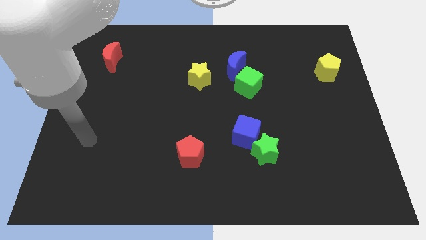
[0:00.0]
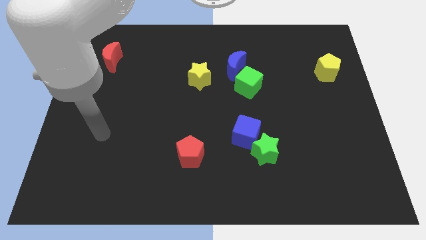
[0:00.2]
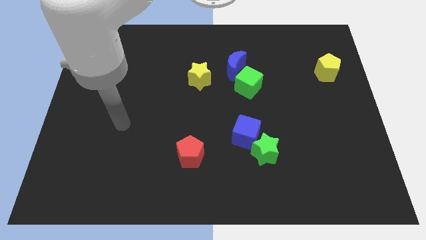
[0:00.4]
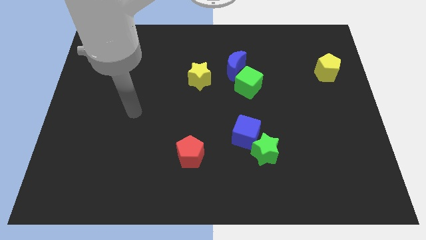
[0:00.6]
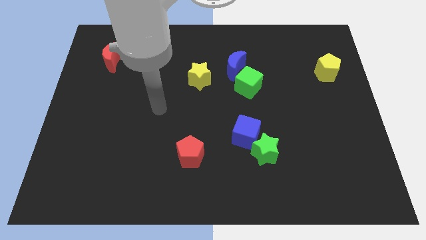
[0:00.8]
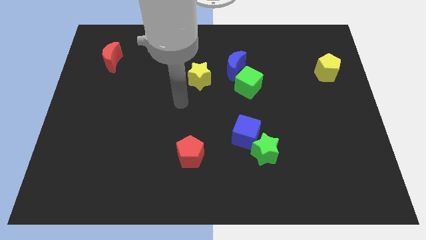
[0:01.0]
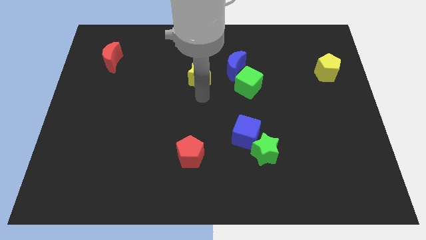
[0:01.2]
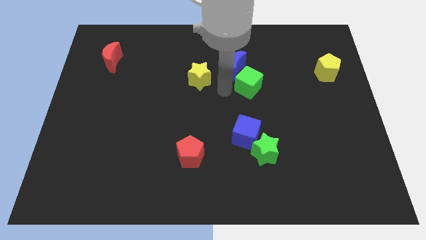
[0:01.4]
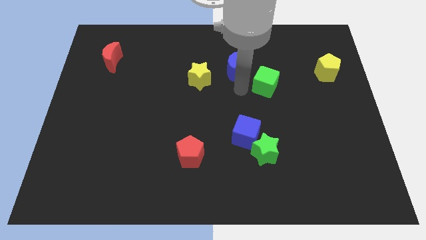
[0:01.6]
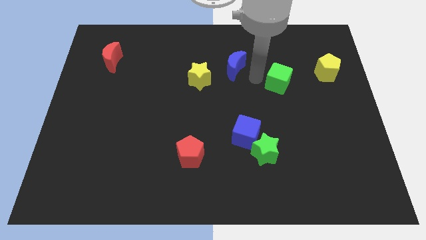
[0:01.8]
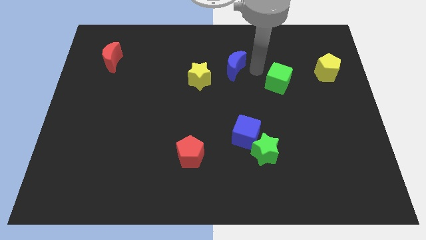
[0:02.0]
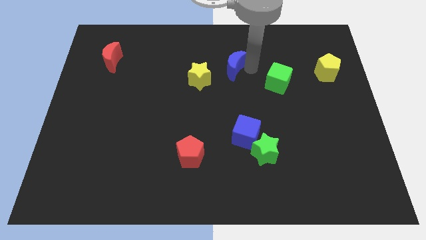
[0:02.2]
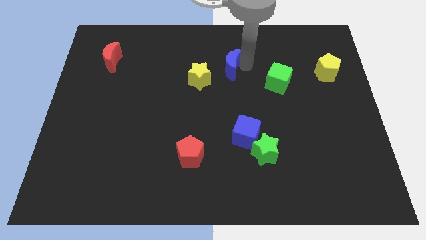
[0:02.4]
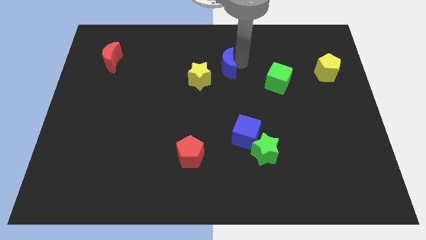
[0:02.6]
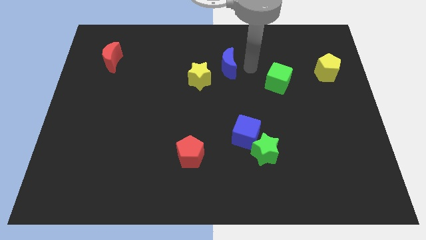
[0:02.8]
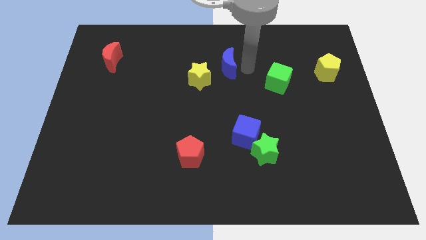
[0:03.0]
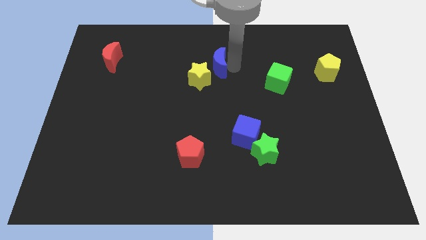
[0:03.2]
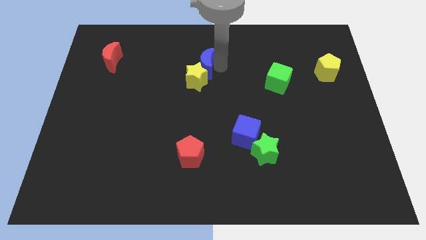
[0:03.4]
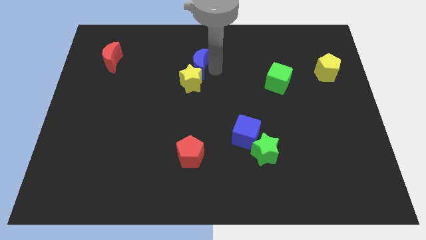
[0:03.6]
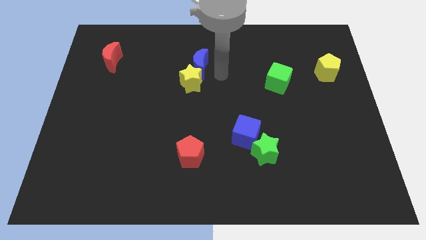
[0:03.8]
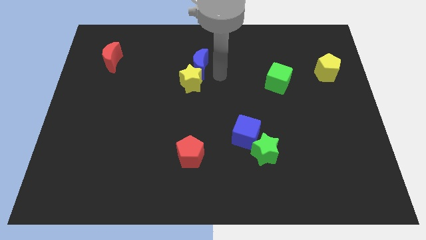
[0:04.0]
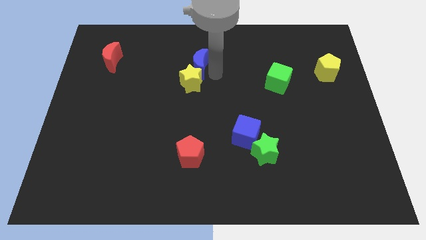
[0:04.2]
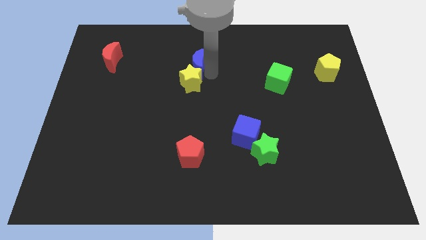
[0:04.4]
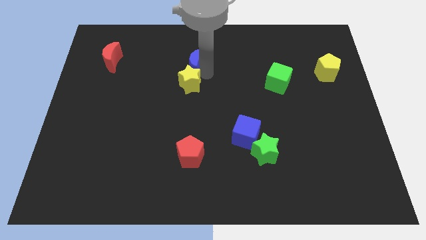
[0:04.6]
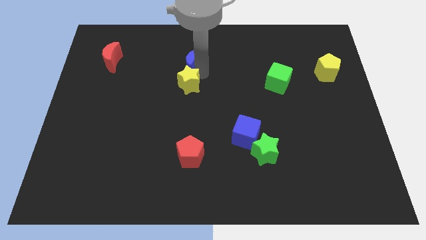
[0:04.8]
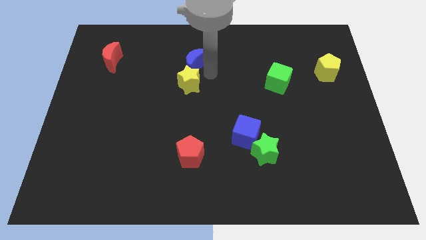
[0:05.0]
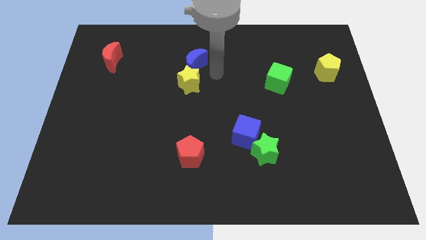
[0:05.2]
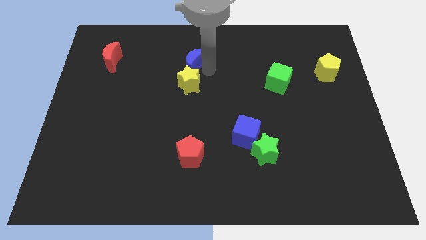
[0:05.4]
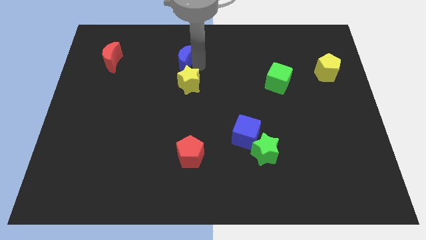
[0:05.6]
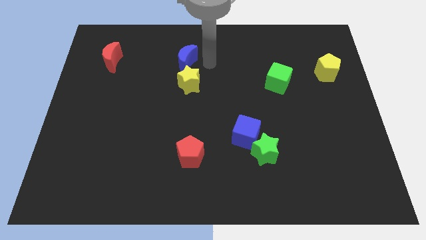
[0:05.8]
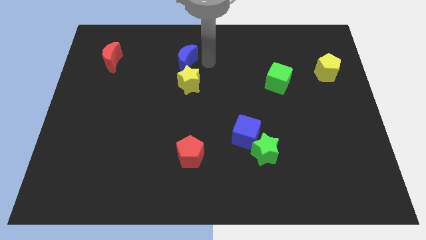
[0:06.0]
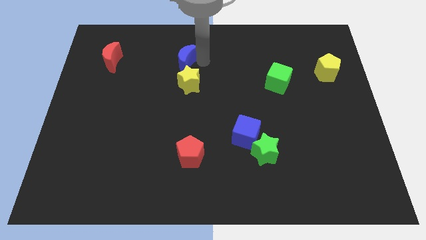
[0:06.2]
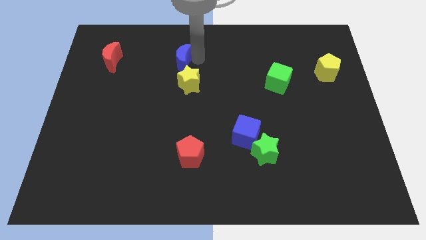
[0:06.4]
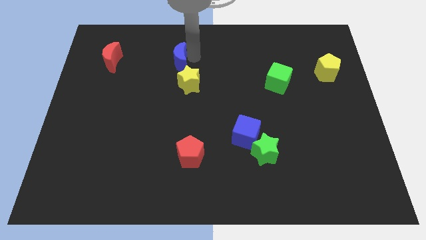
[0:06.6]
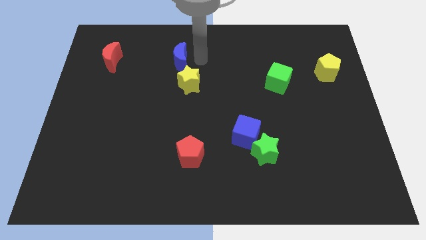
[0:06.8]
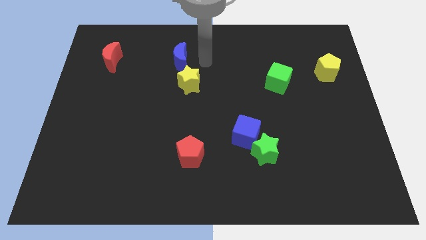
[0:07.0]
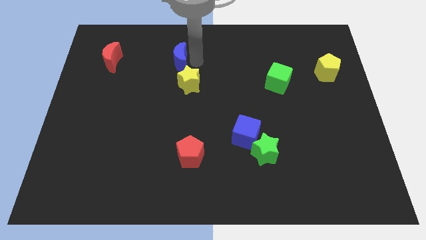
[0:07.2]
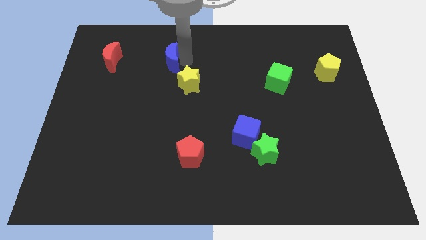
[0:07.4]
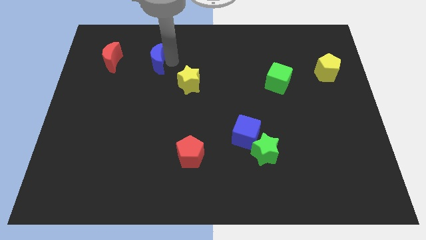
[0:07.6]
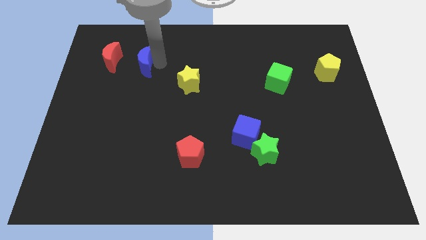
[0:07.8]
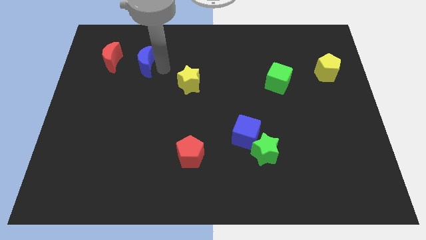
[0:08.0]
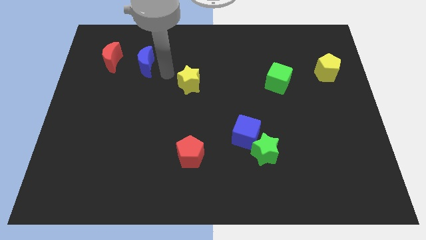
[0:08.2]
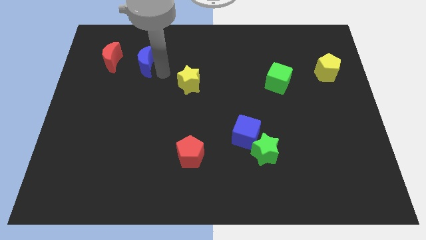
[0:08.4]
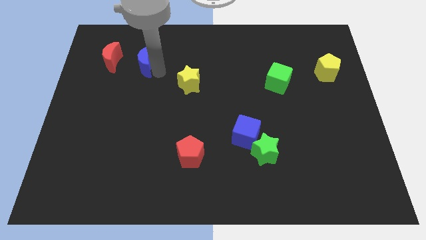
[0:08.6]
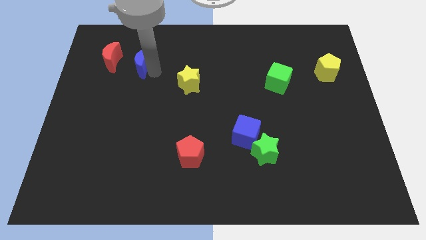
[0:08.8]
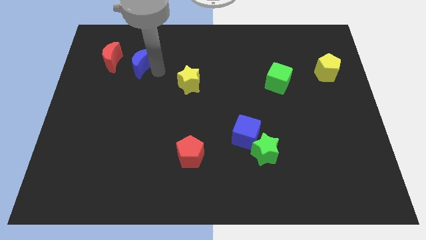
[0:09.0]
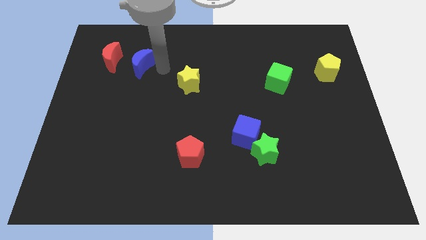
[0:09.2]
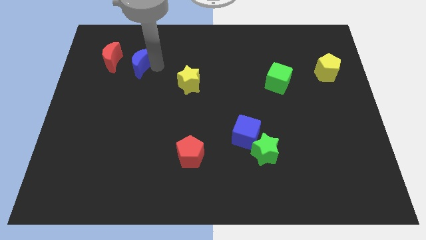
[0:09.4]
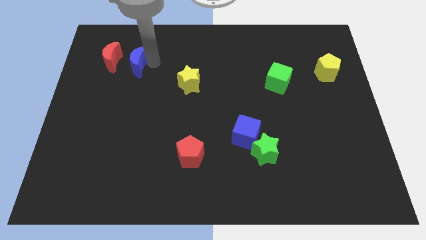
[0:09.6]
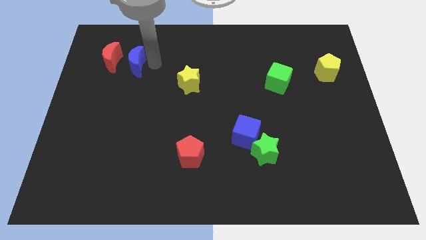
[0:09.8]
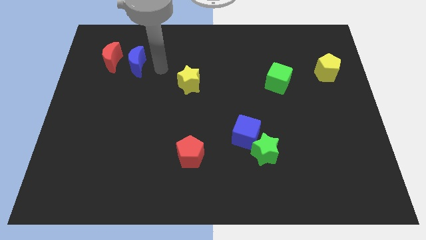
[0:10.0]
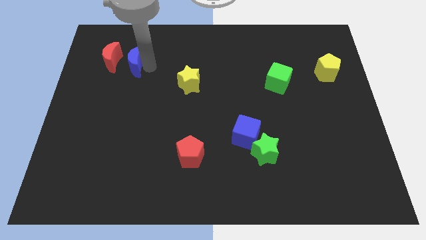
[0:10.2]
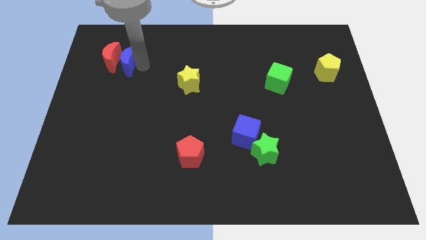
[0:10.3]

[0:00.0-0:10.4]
push the blue moon to the red moon

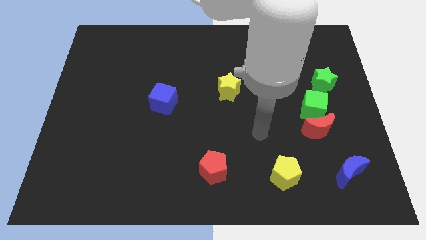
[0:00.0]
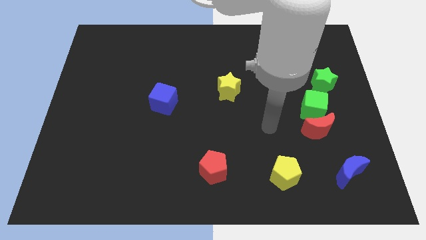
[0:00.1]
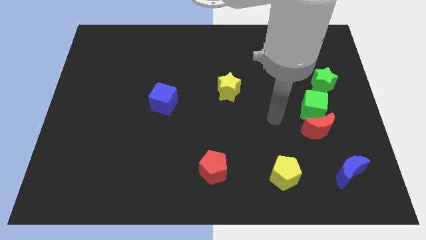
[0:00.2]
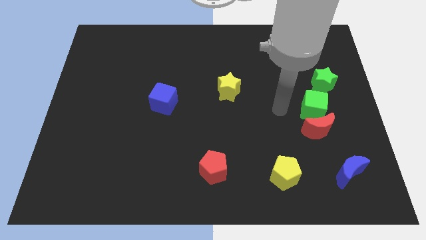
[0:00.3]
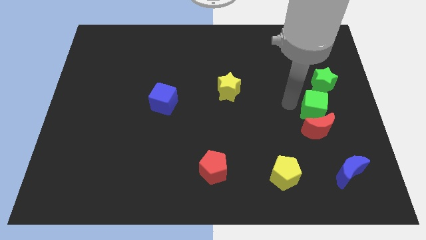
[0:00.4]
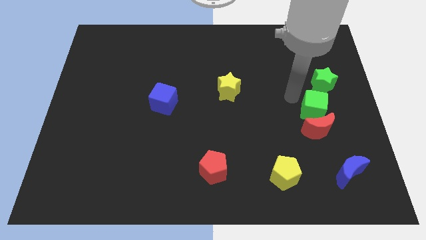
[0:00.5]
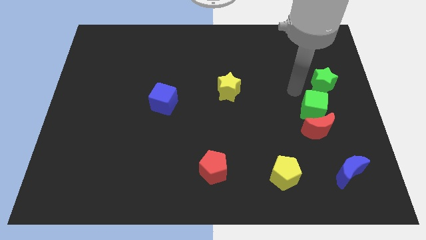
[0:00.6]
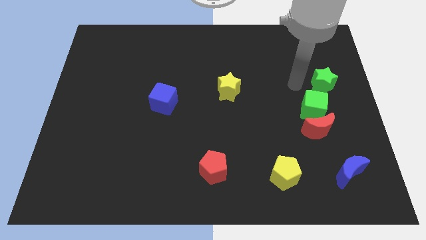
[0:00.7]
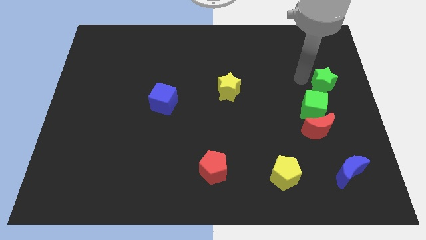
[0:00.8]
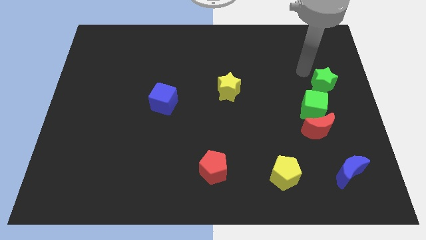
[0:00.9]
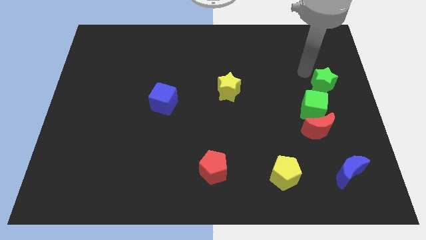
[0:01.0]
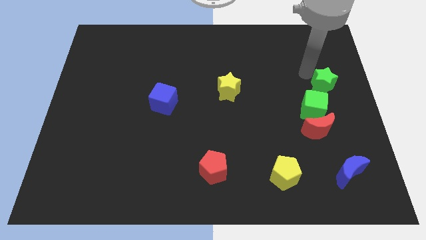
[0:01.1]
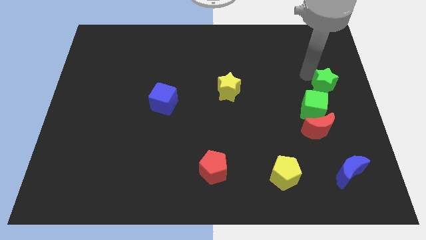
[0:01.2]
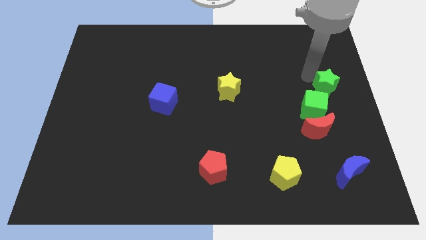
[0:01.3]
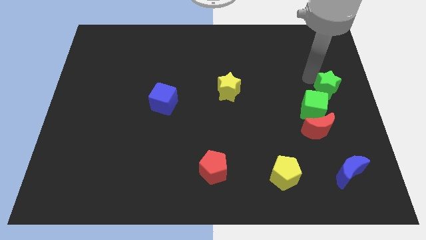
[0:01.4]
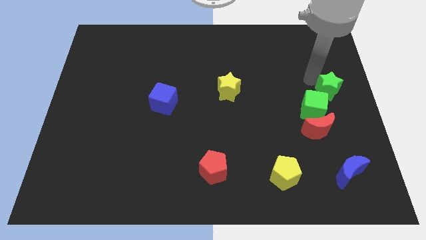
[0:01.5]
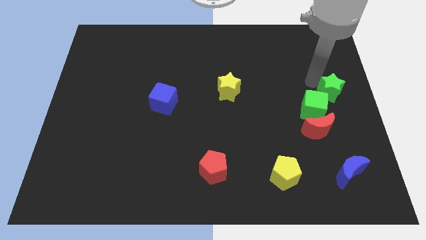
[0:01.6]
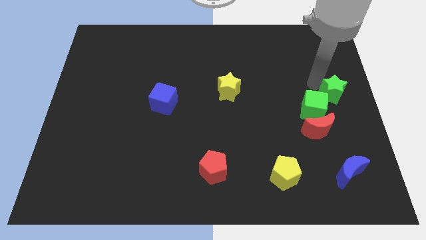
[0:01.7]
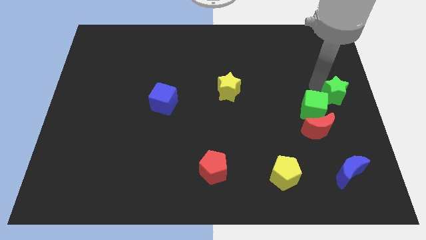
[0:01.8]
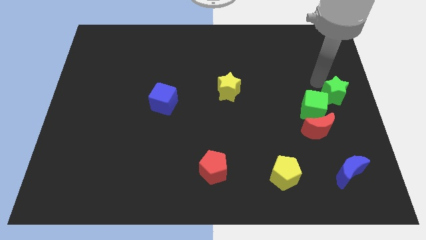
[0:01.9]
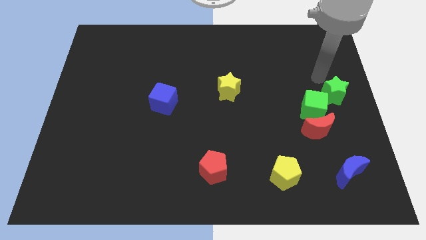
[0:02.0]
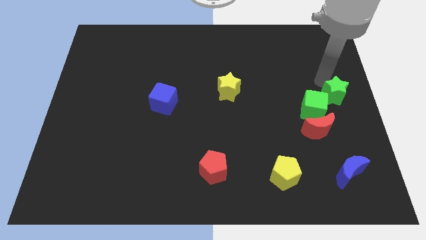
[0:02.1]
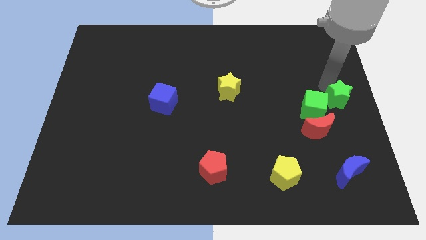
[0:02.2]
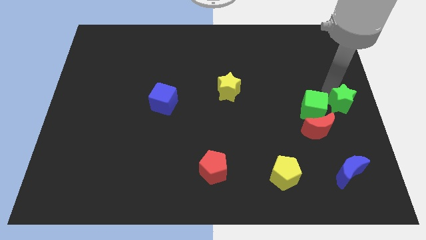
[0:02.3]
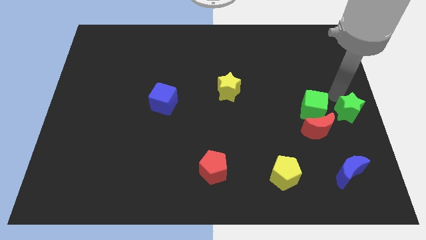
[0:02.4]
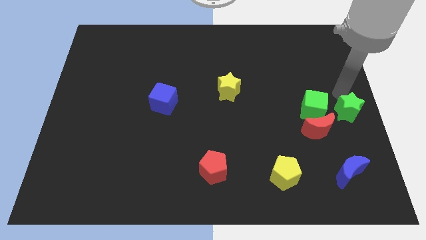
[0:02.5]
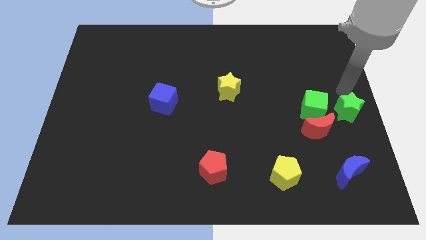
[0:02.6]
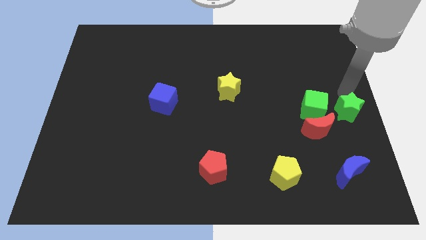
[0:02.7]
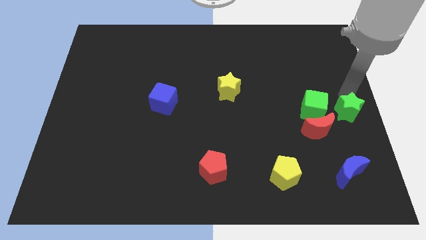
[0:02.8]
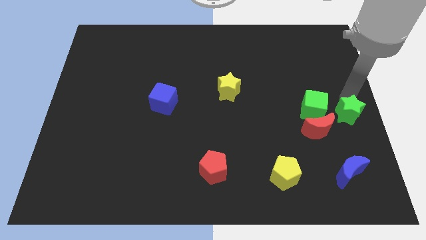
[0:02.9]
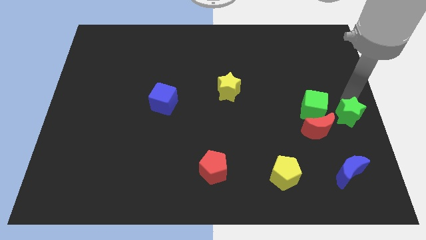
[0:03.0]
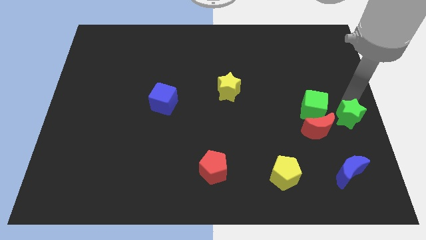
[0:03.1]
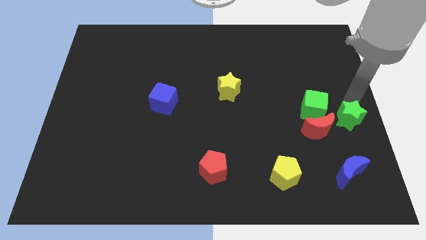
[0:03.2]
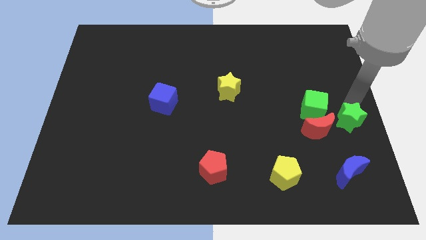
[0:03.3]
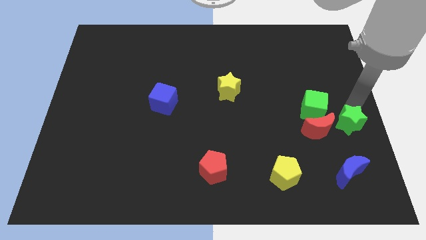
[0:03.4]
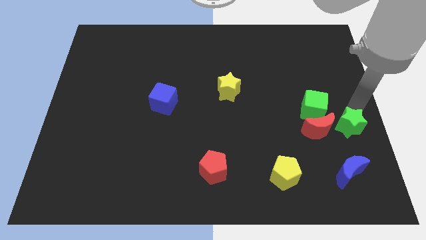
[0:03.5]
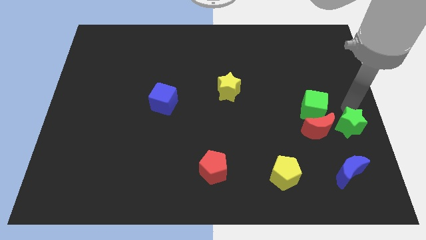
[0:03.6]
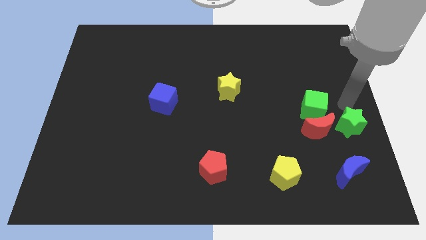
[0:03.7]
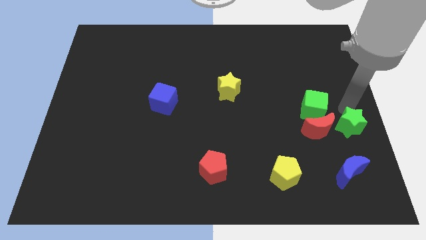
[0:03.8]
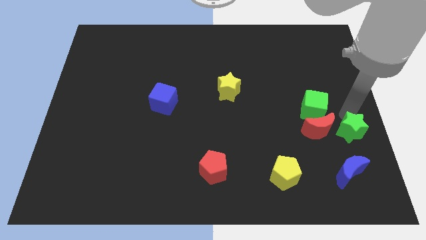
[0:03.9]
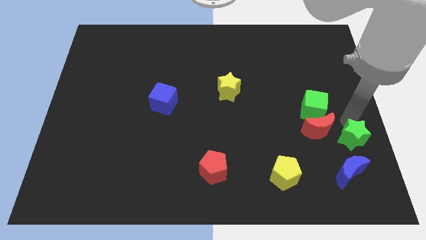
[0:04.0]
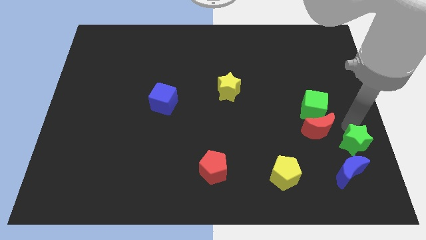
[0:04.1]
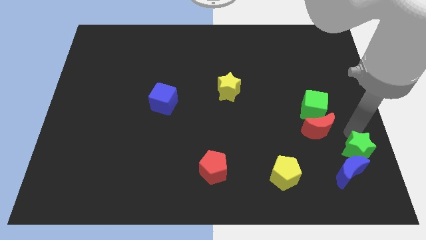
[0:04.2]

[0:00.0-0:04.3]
put the green star close to the blue moon
